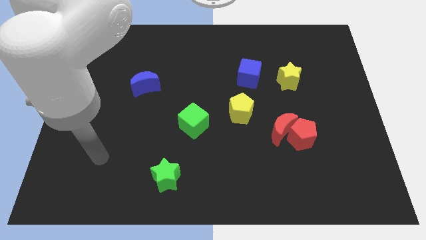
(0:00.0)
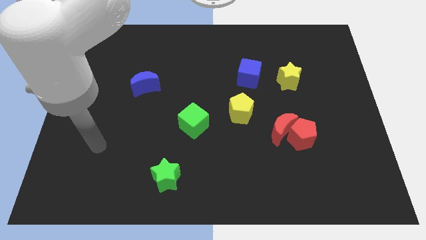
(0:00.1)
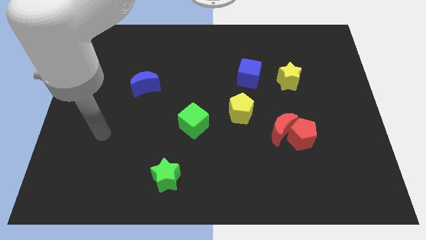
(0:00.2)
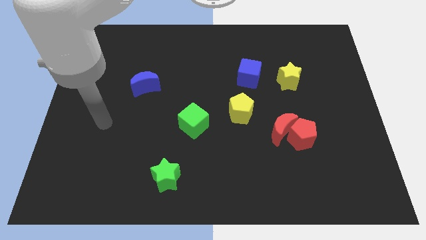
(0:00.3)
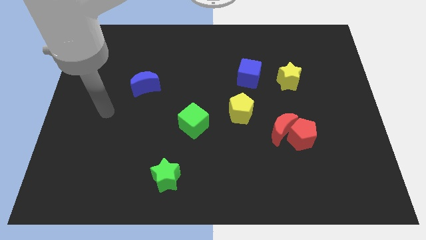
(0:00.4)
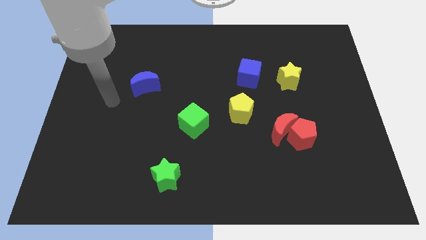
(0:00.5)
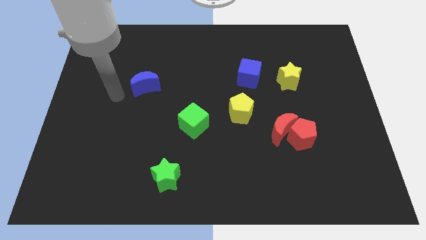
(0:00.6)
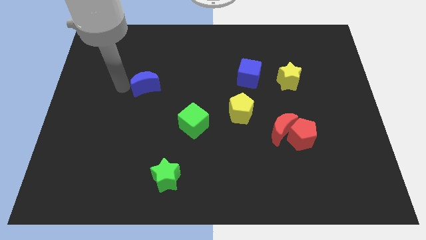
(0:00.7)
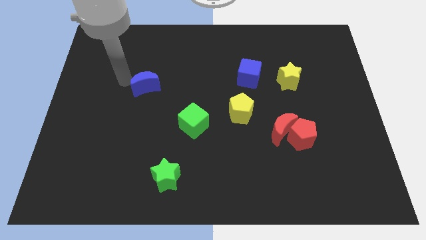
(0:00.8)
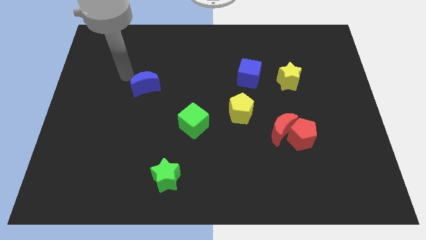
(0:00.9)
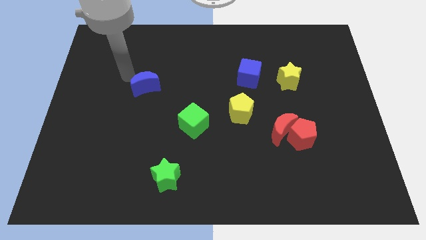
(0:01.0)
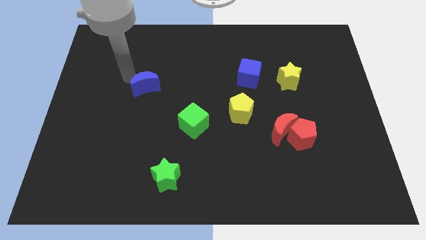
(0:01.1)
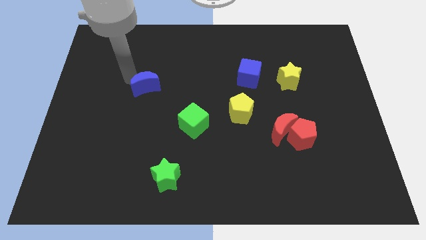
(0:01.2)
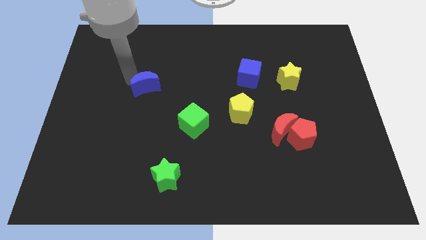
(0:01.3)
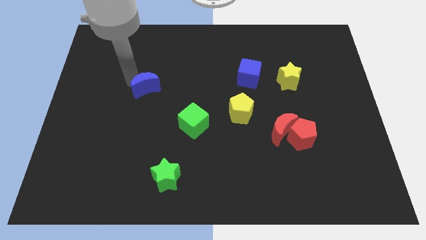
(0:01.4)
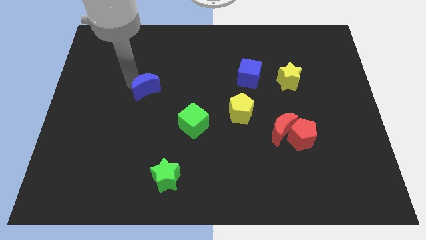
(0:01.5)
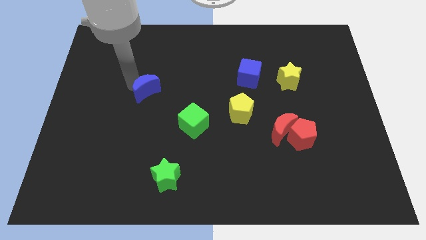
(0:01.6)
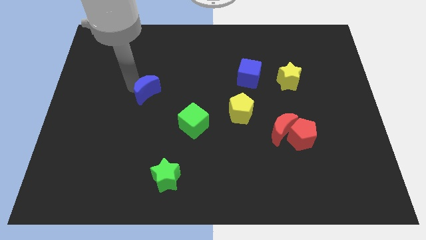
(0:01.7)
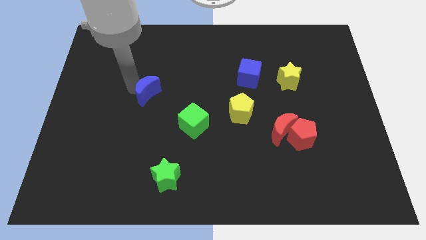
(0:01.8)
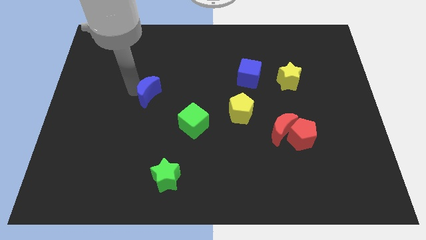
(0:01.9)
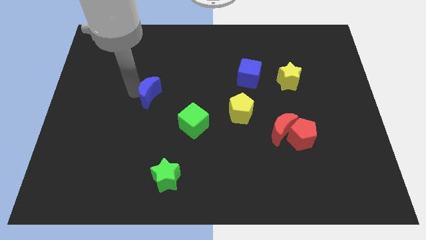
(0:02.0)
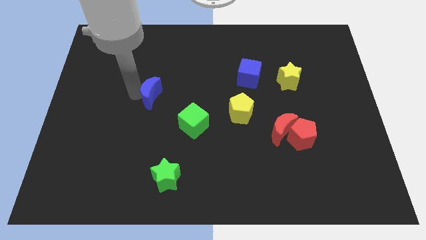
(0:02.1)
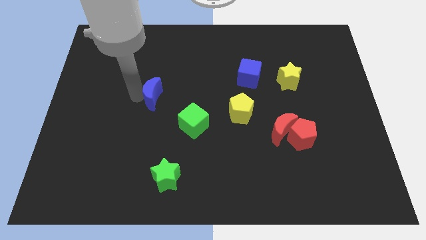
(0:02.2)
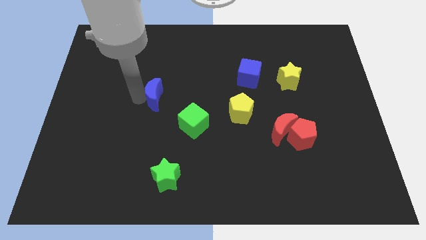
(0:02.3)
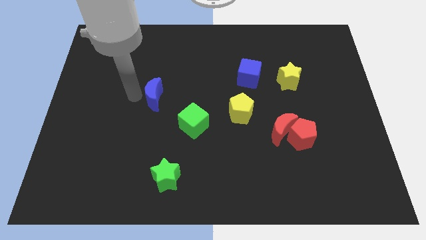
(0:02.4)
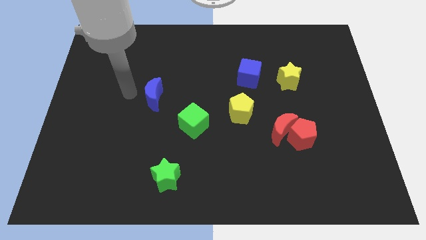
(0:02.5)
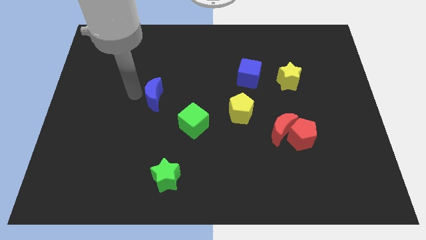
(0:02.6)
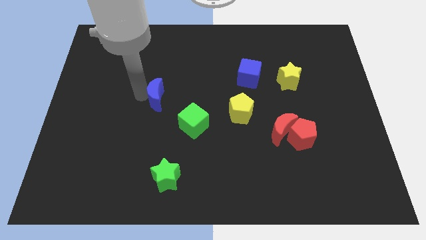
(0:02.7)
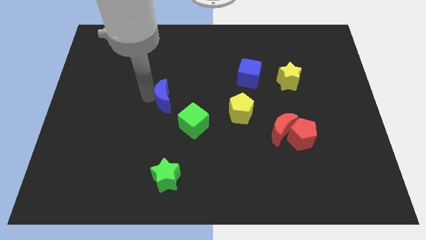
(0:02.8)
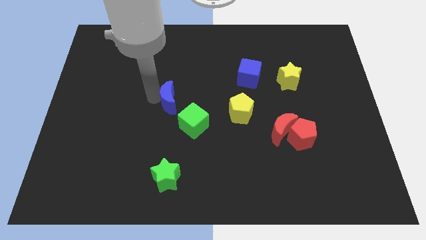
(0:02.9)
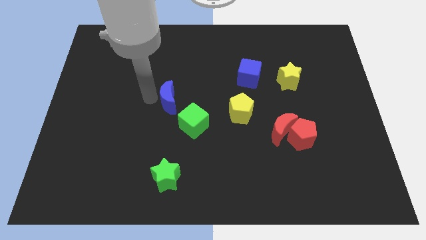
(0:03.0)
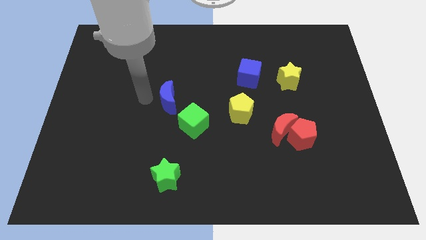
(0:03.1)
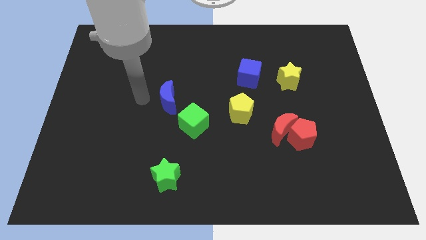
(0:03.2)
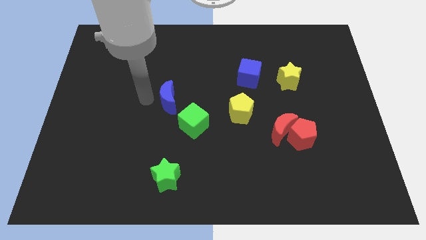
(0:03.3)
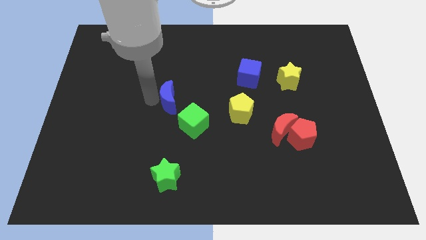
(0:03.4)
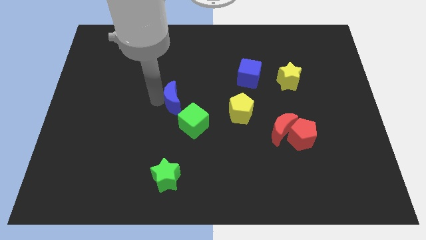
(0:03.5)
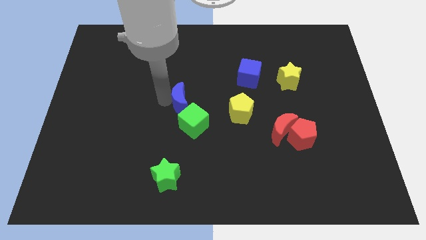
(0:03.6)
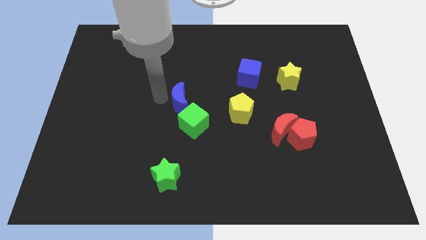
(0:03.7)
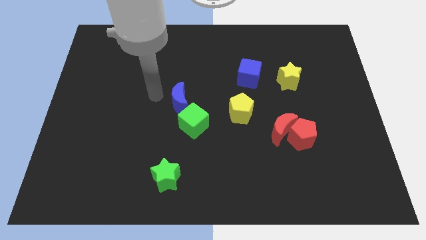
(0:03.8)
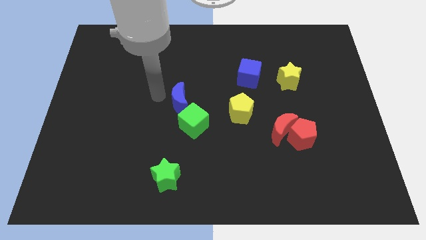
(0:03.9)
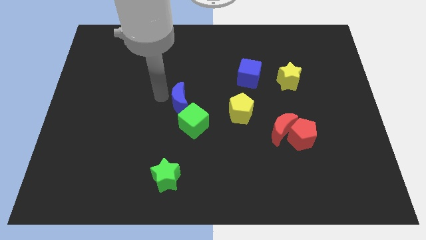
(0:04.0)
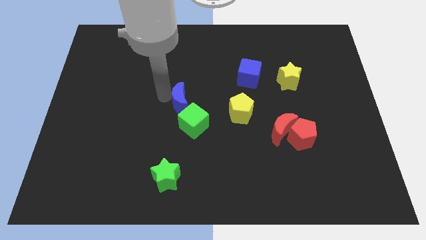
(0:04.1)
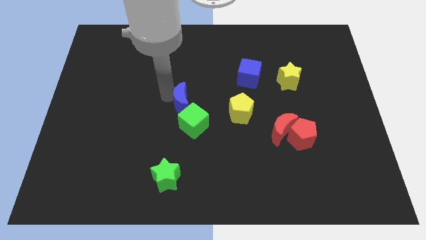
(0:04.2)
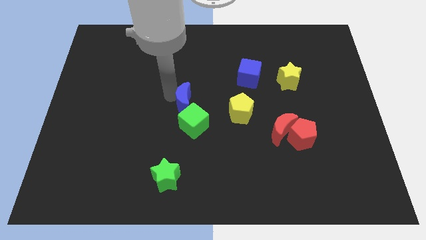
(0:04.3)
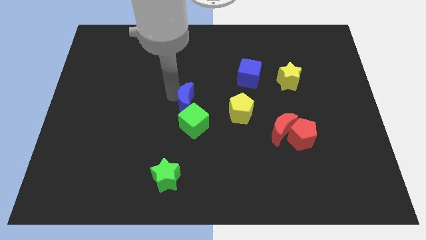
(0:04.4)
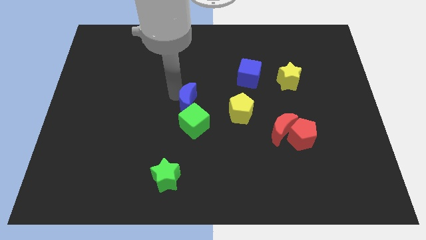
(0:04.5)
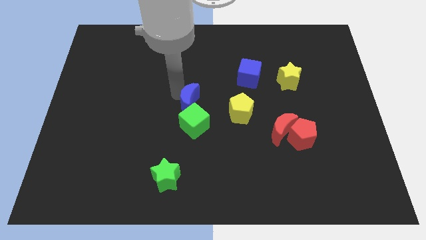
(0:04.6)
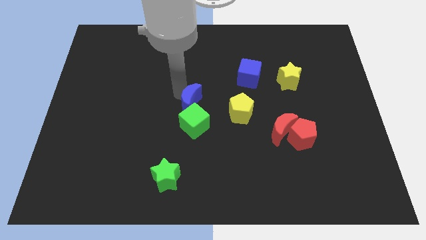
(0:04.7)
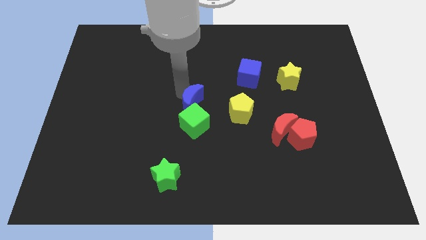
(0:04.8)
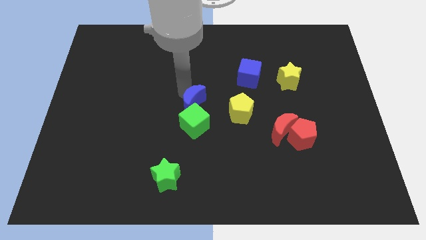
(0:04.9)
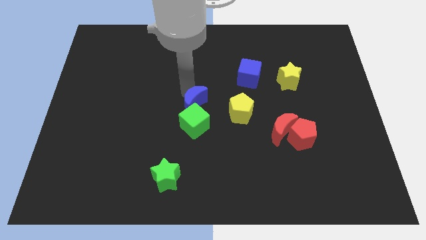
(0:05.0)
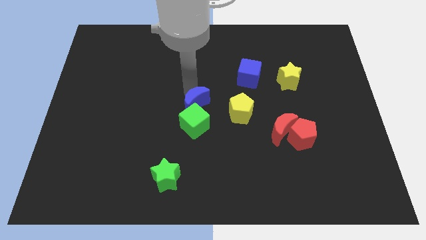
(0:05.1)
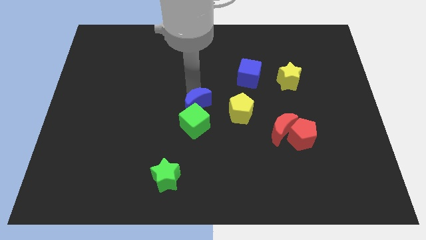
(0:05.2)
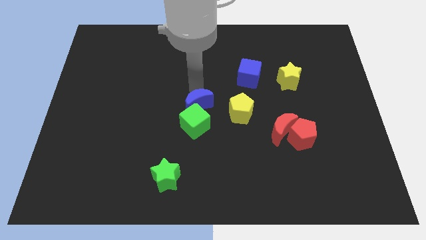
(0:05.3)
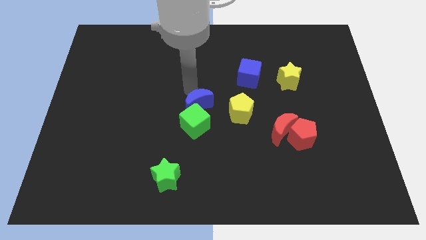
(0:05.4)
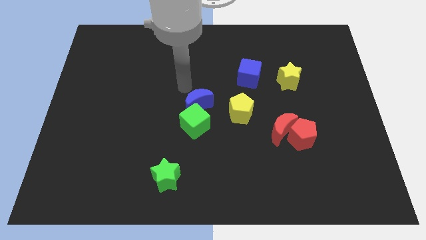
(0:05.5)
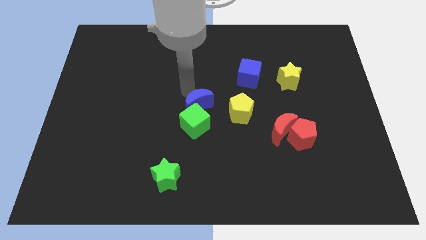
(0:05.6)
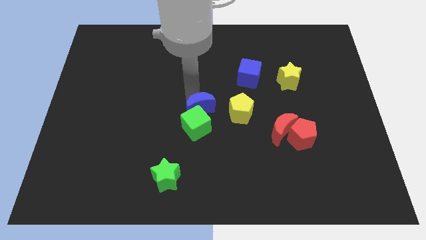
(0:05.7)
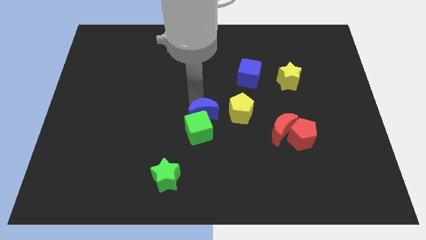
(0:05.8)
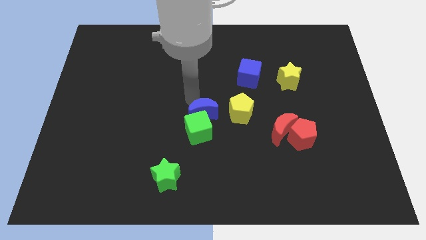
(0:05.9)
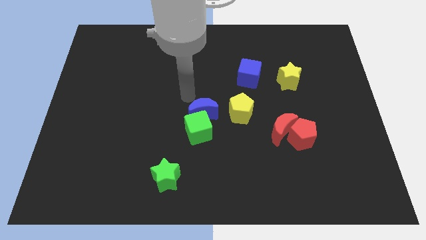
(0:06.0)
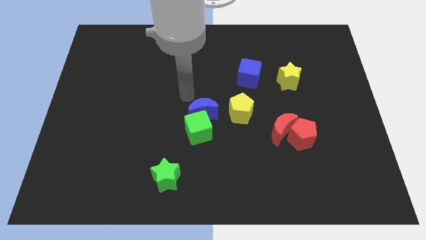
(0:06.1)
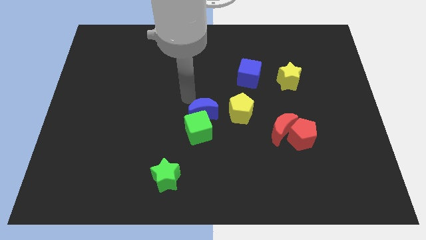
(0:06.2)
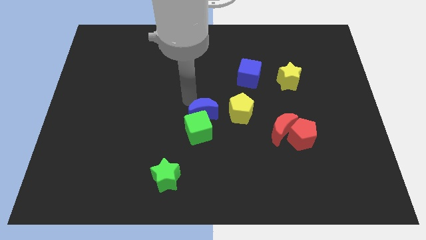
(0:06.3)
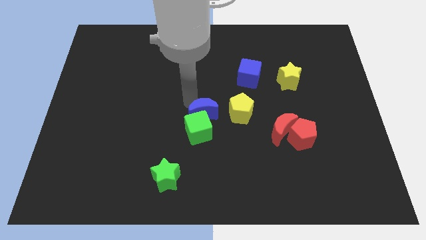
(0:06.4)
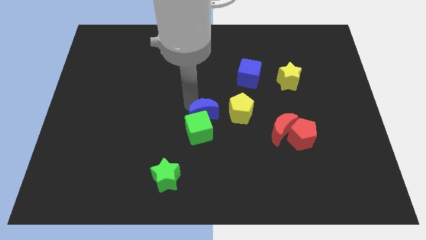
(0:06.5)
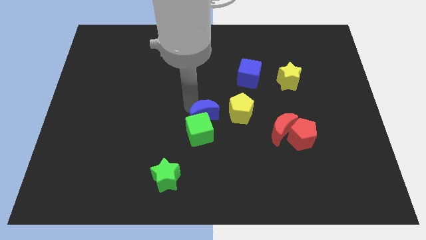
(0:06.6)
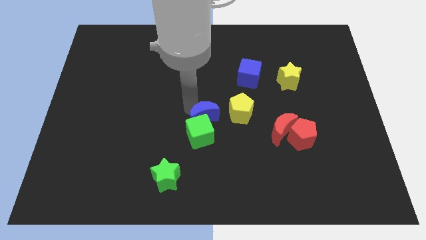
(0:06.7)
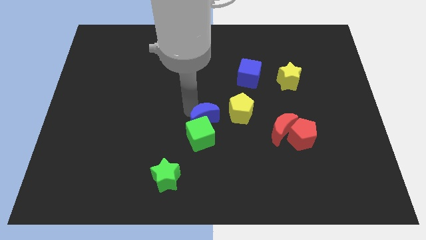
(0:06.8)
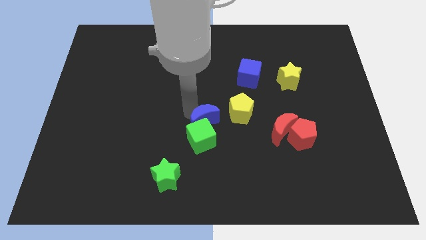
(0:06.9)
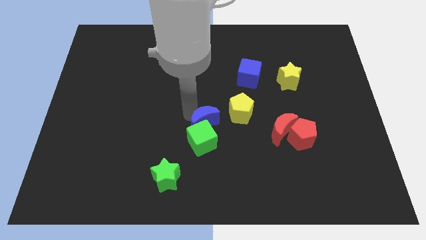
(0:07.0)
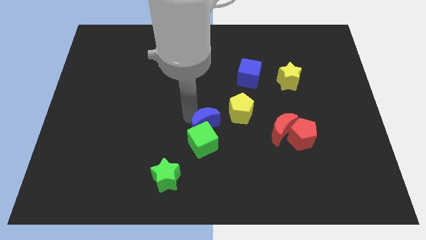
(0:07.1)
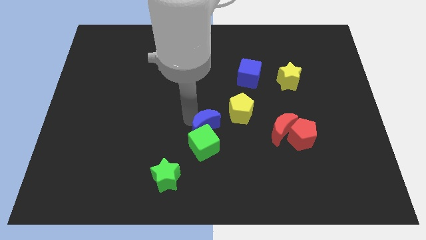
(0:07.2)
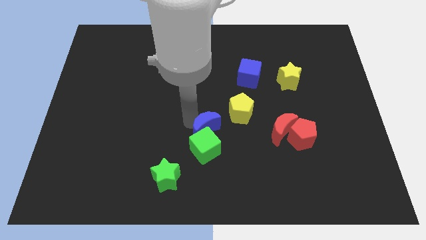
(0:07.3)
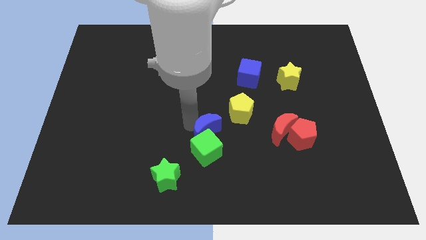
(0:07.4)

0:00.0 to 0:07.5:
move the blue moon diagonally downwards and to the right
